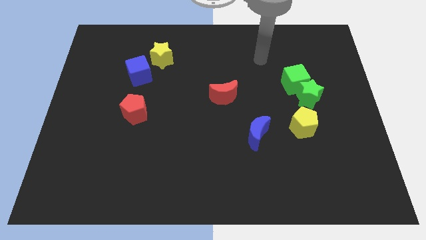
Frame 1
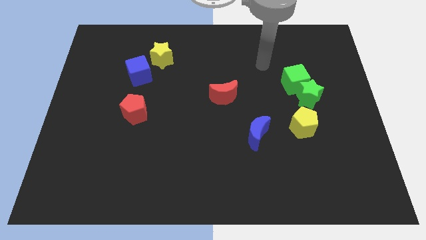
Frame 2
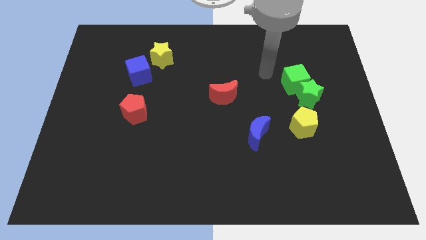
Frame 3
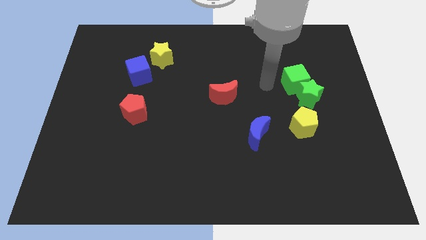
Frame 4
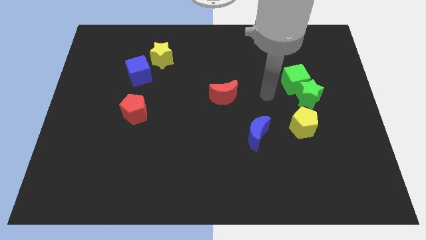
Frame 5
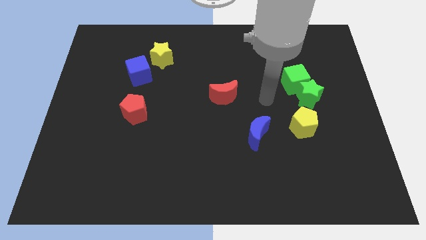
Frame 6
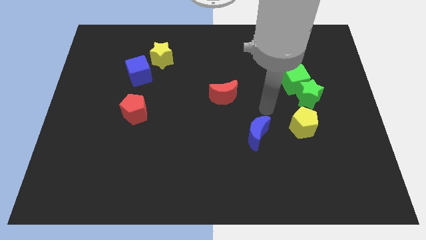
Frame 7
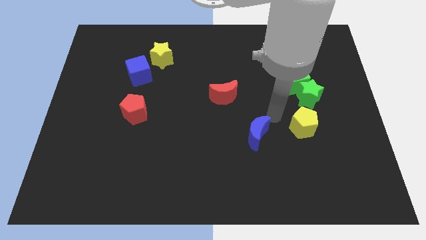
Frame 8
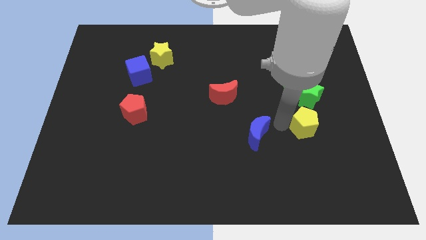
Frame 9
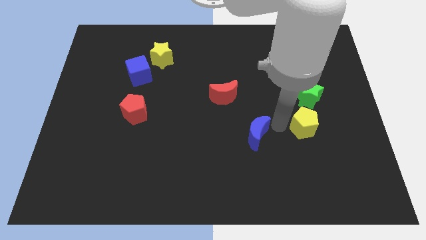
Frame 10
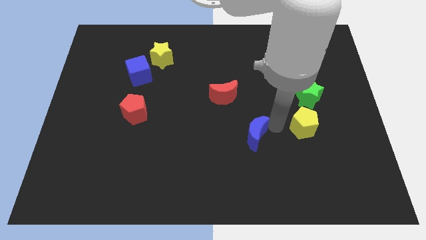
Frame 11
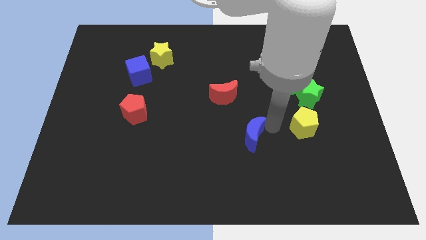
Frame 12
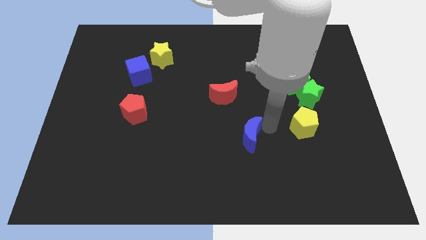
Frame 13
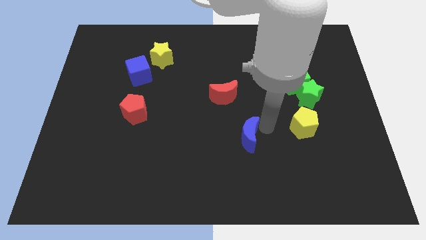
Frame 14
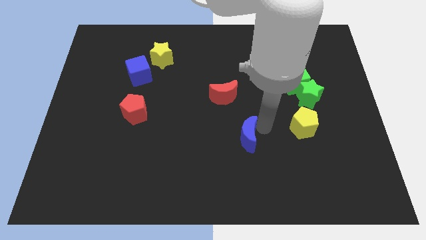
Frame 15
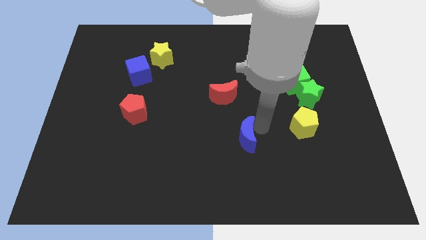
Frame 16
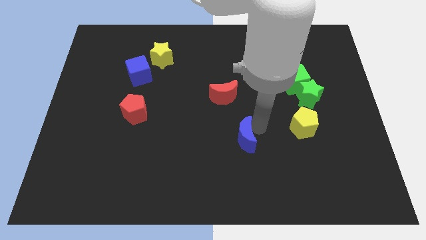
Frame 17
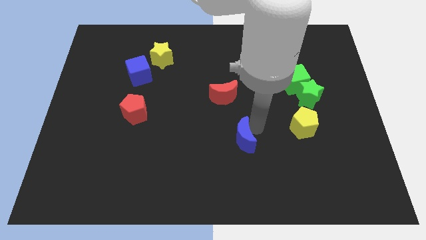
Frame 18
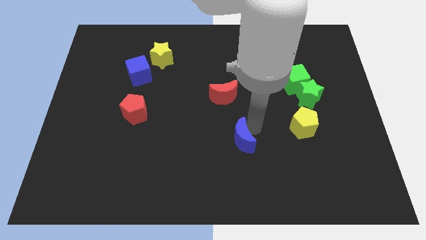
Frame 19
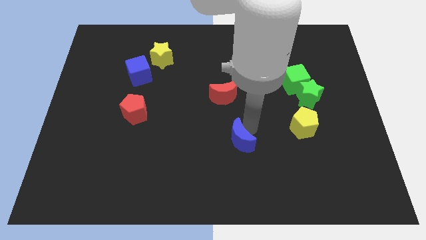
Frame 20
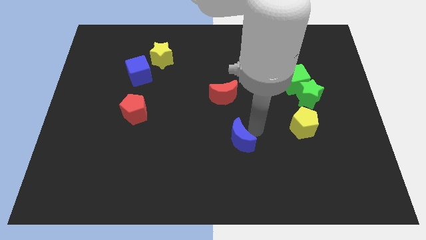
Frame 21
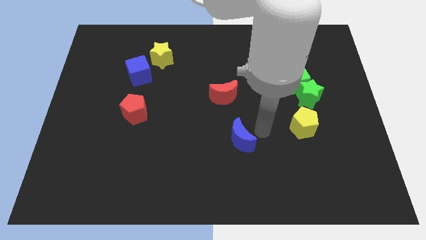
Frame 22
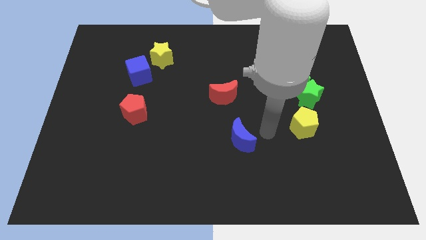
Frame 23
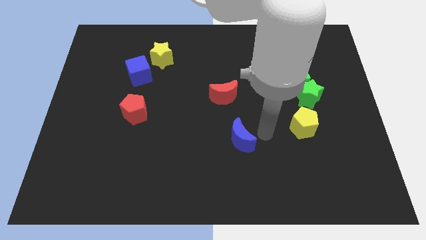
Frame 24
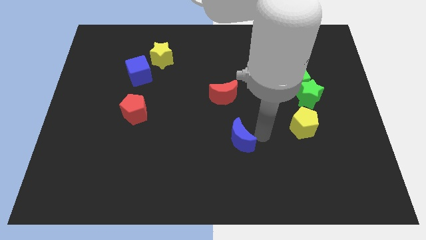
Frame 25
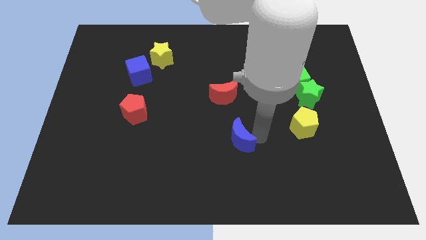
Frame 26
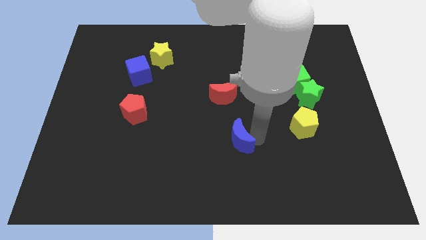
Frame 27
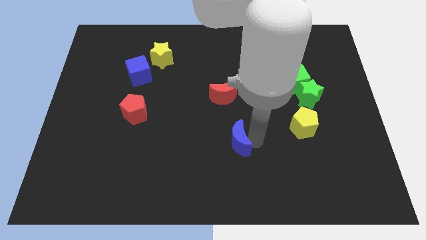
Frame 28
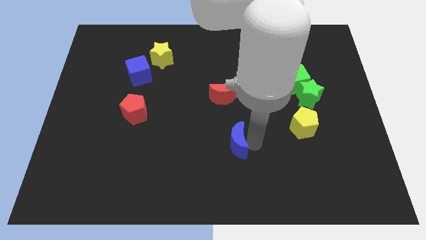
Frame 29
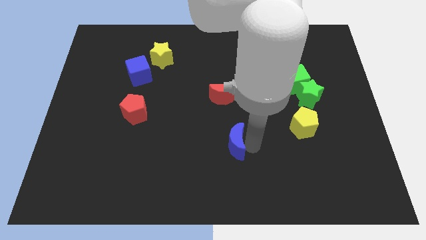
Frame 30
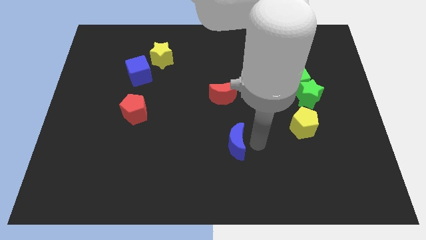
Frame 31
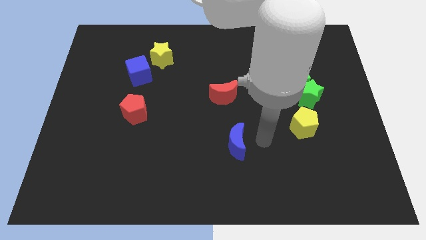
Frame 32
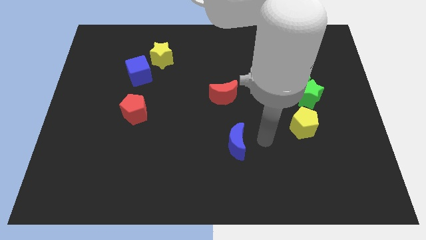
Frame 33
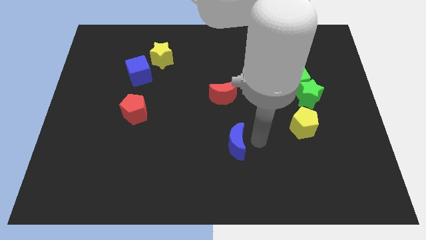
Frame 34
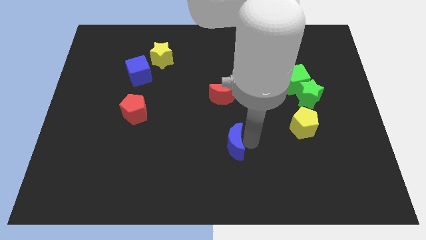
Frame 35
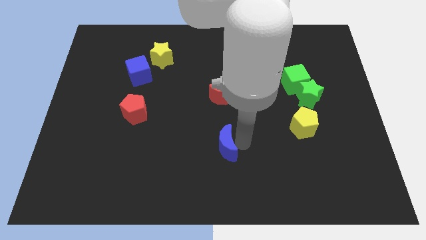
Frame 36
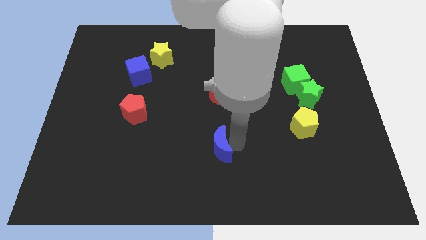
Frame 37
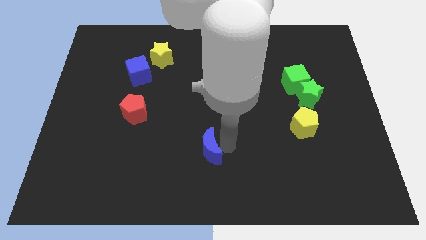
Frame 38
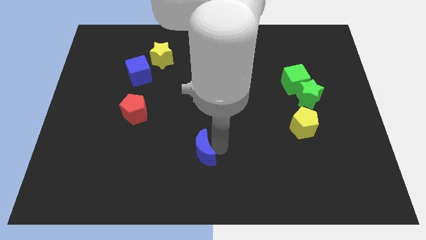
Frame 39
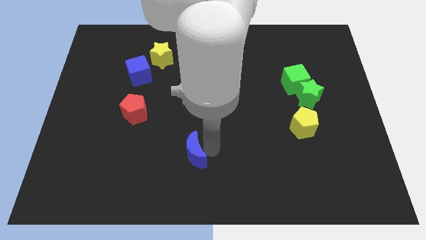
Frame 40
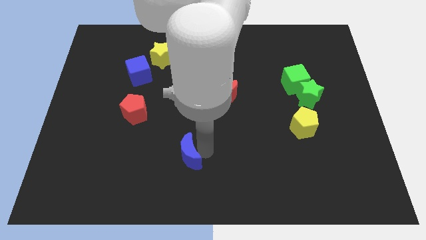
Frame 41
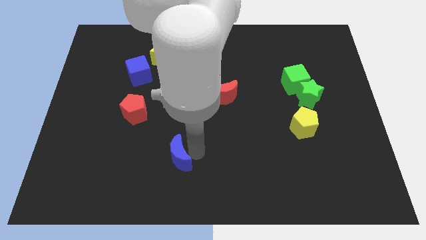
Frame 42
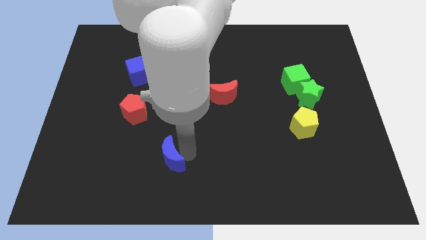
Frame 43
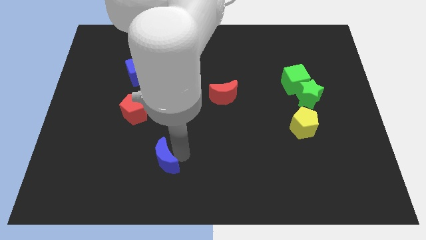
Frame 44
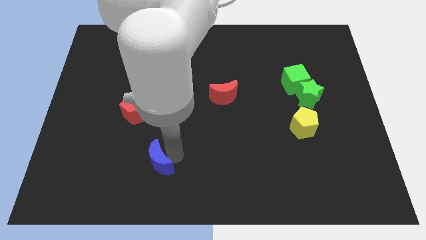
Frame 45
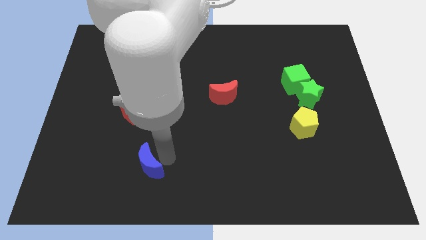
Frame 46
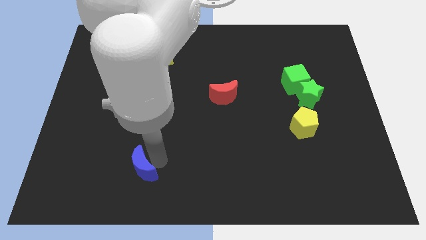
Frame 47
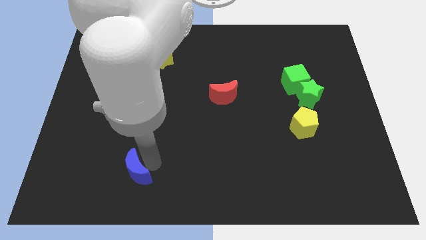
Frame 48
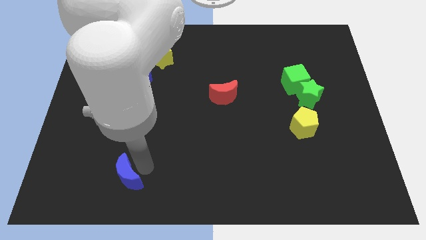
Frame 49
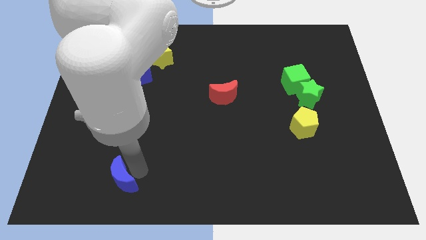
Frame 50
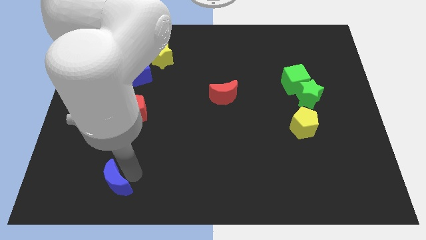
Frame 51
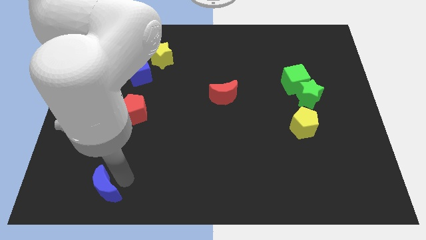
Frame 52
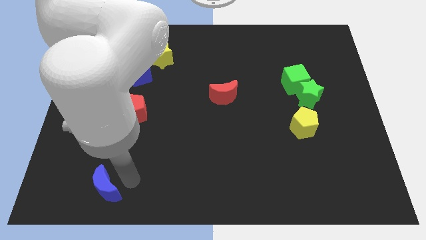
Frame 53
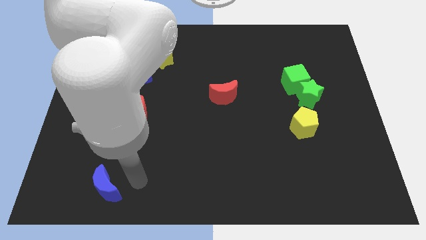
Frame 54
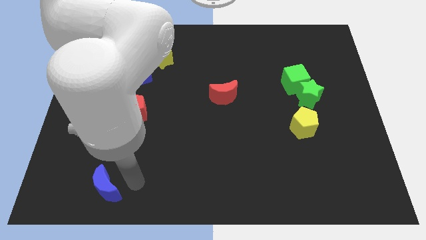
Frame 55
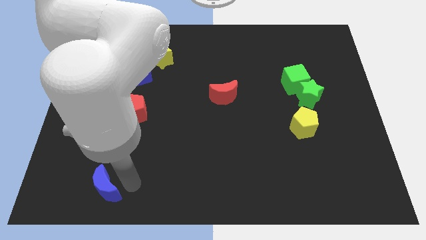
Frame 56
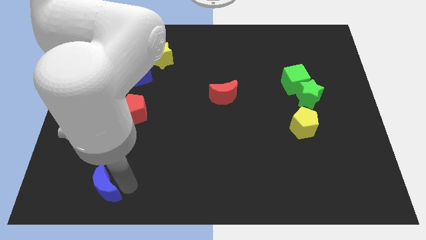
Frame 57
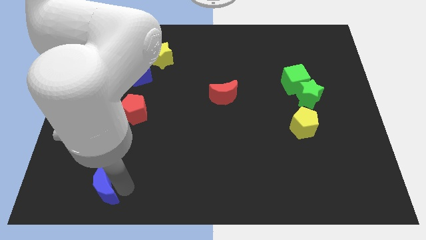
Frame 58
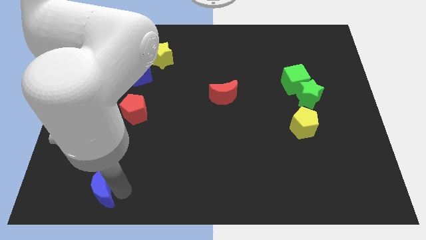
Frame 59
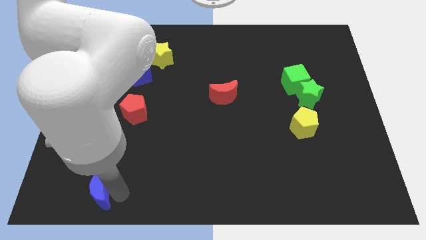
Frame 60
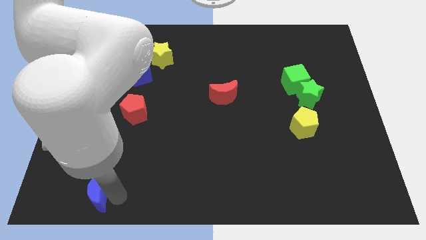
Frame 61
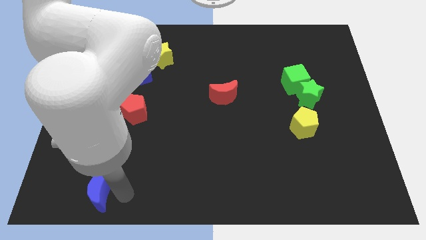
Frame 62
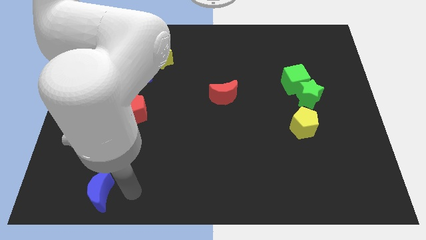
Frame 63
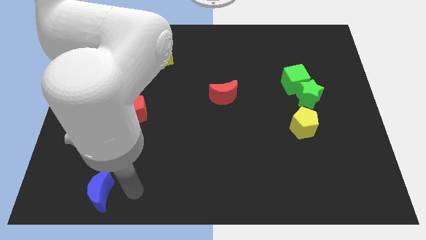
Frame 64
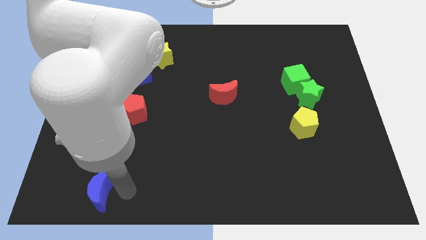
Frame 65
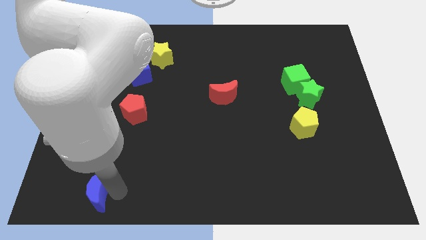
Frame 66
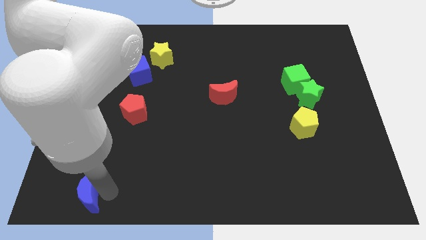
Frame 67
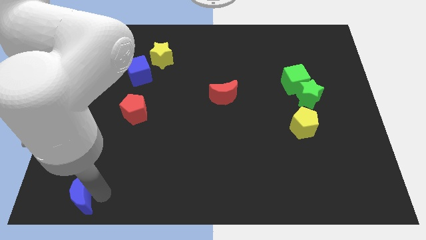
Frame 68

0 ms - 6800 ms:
push the blue moon to the bottom left of the board
